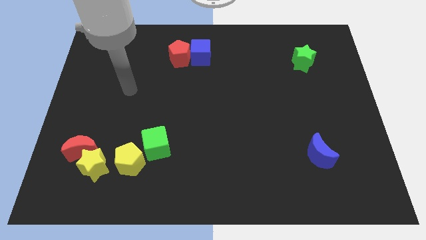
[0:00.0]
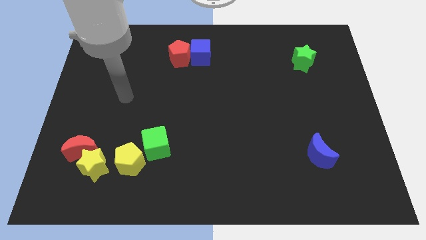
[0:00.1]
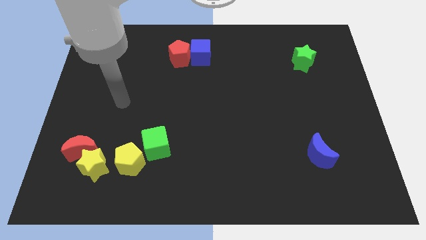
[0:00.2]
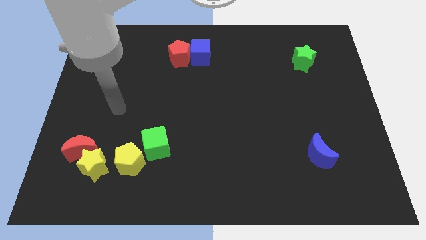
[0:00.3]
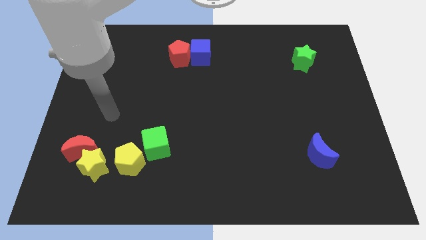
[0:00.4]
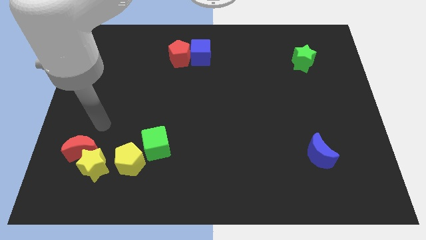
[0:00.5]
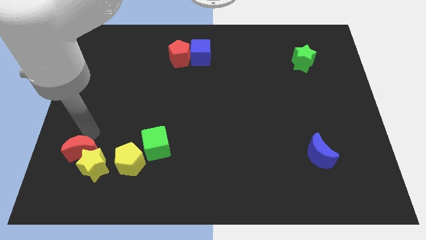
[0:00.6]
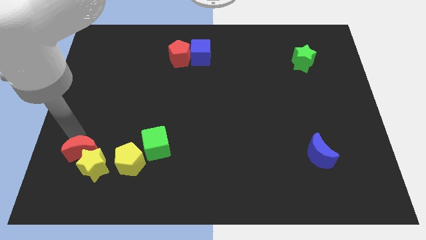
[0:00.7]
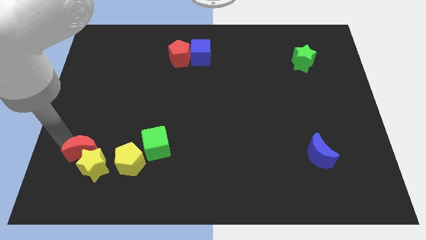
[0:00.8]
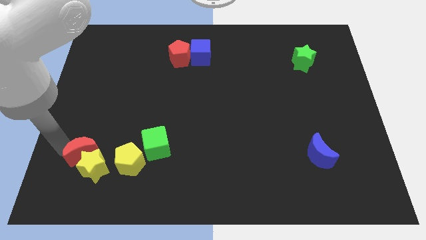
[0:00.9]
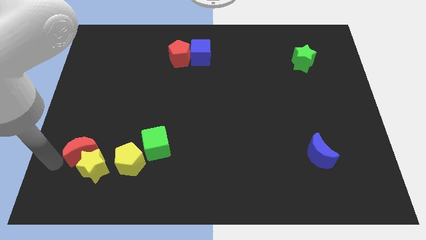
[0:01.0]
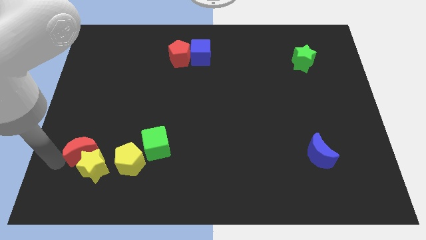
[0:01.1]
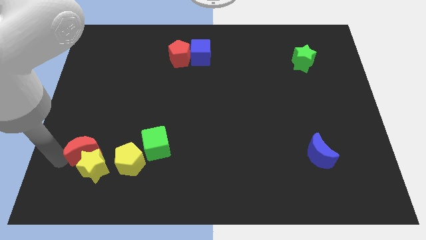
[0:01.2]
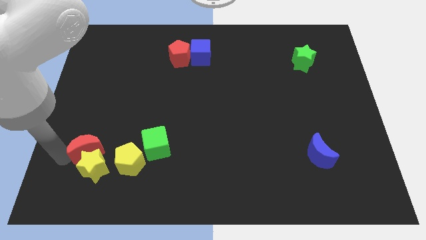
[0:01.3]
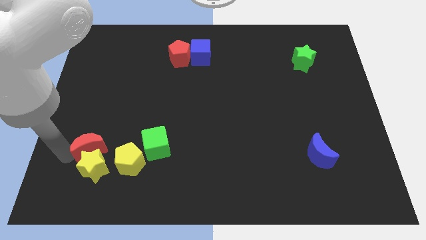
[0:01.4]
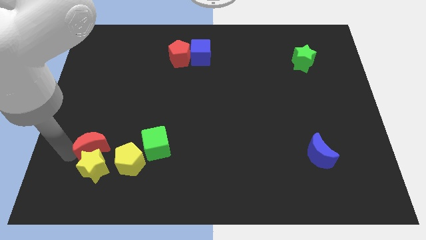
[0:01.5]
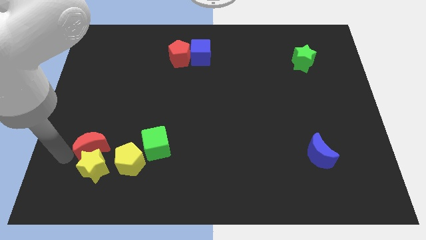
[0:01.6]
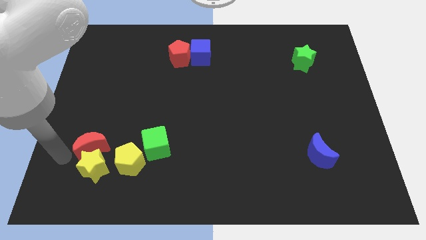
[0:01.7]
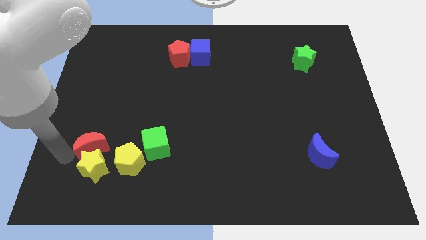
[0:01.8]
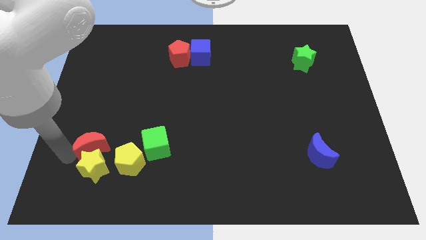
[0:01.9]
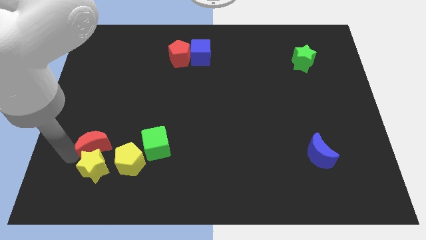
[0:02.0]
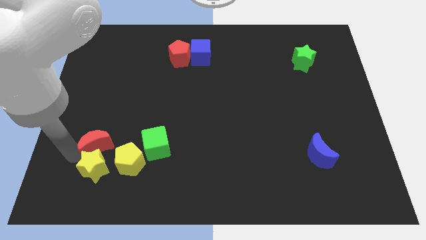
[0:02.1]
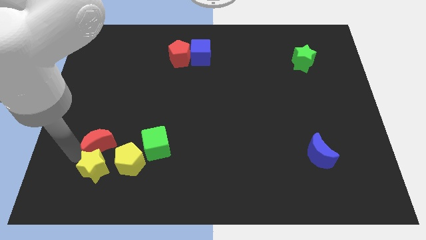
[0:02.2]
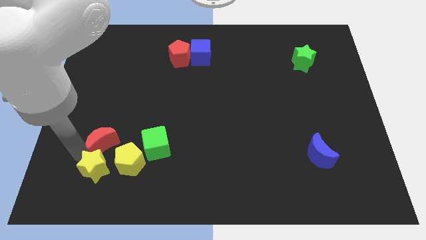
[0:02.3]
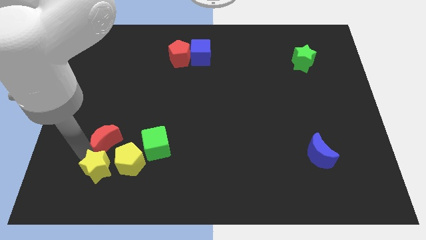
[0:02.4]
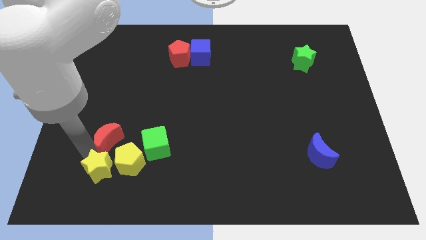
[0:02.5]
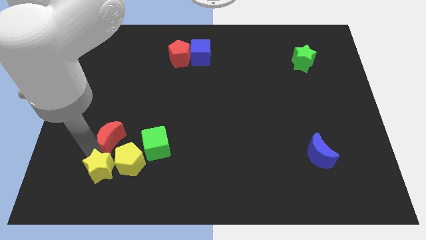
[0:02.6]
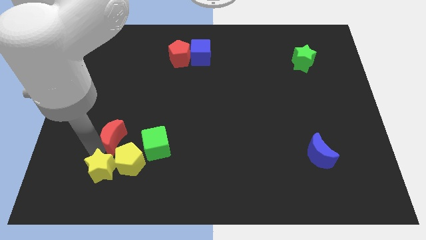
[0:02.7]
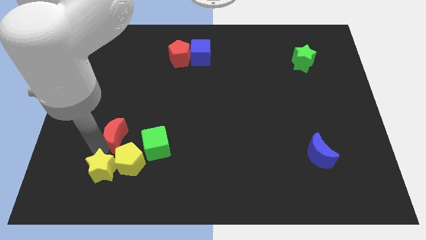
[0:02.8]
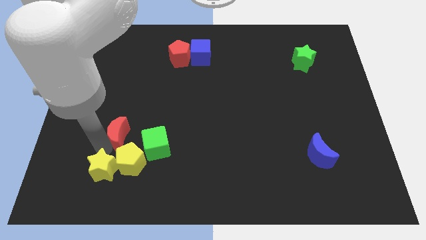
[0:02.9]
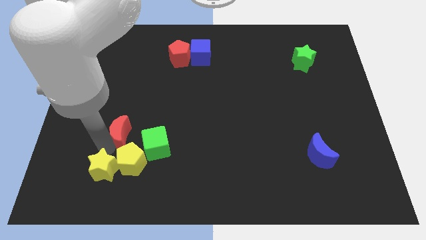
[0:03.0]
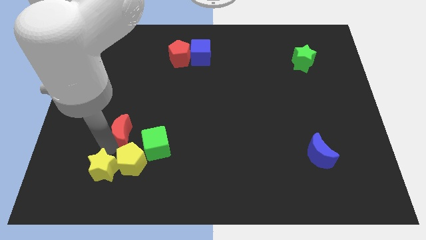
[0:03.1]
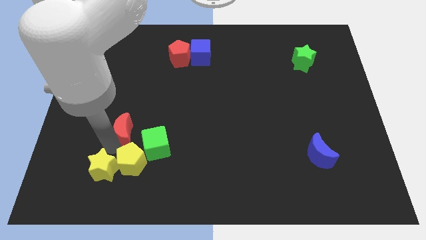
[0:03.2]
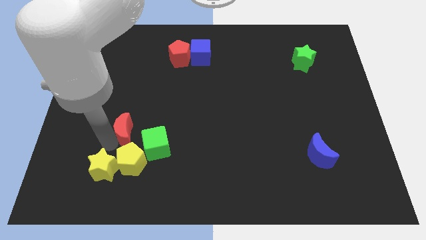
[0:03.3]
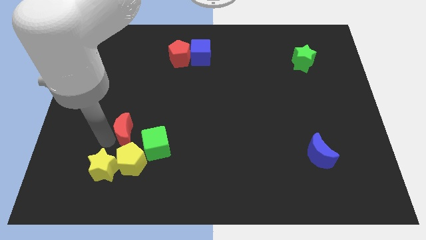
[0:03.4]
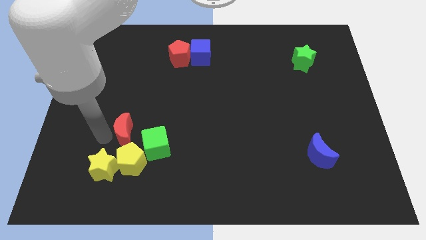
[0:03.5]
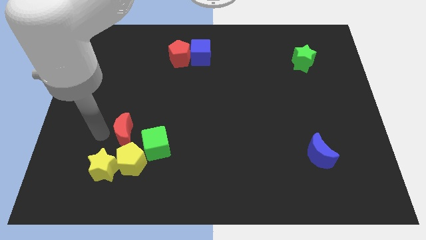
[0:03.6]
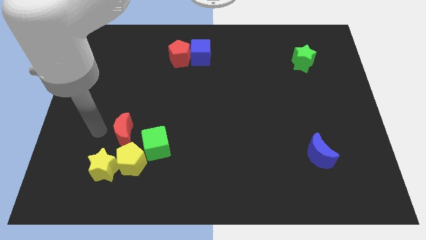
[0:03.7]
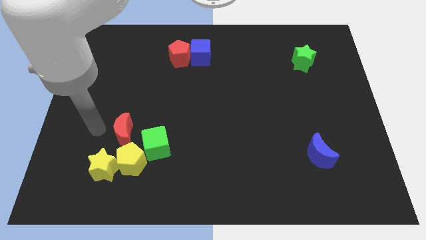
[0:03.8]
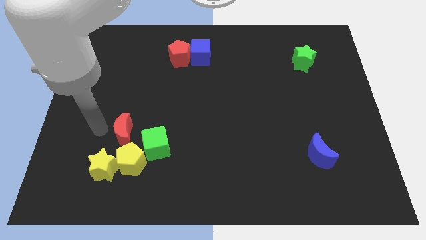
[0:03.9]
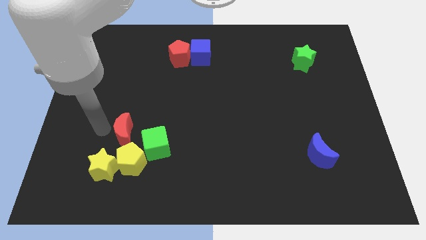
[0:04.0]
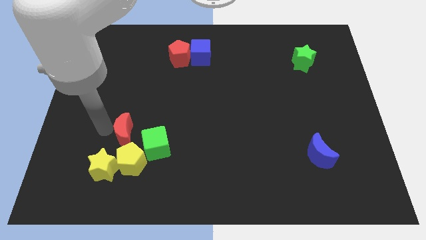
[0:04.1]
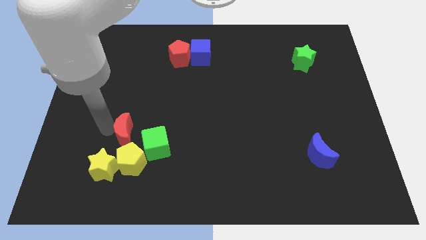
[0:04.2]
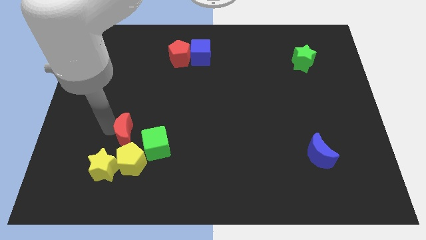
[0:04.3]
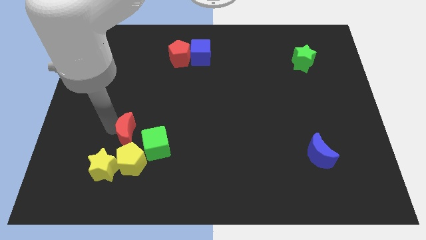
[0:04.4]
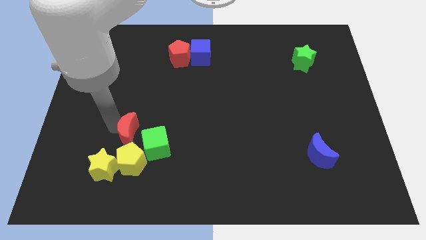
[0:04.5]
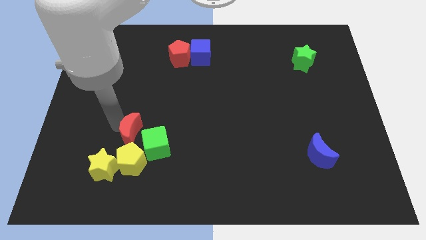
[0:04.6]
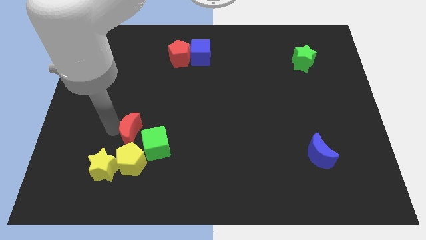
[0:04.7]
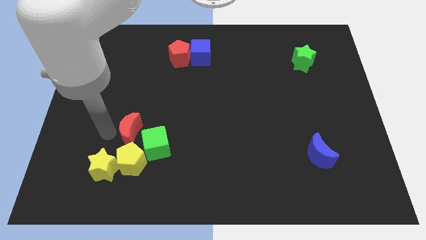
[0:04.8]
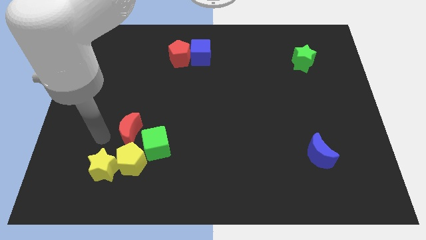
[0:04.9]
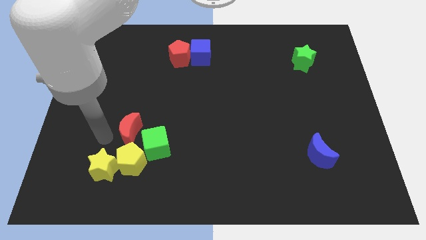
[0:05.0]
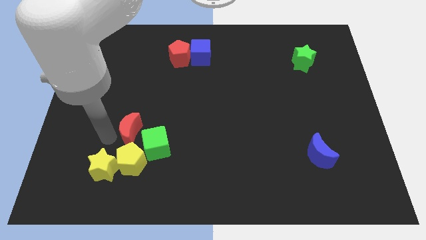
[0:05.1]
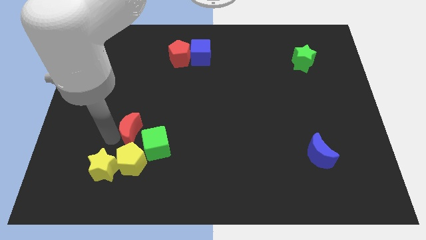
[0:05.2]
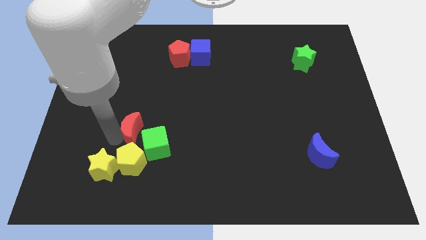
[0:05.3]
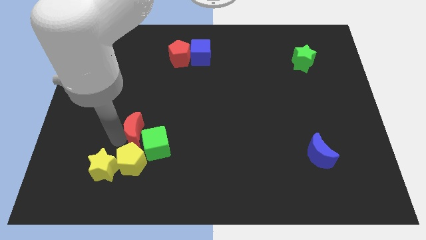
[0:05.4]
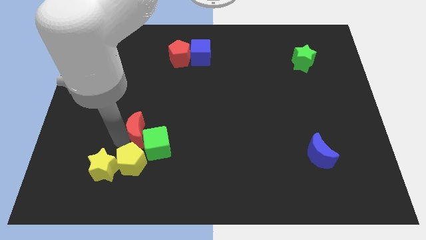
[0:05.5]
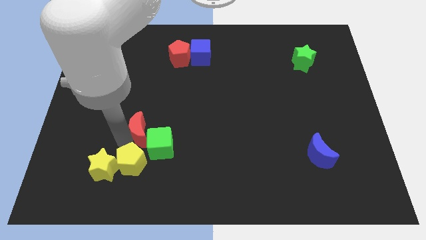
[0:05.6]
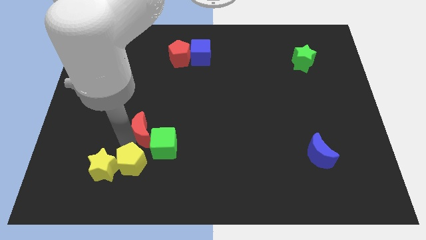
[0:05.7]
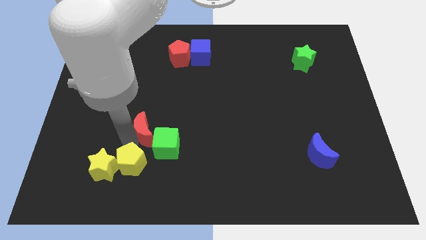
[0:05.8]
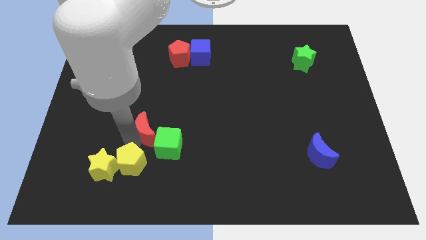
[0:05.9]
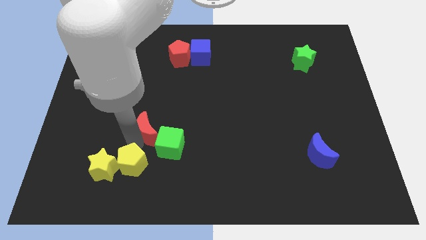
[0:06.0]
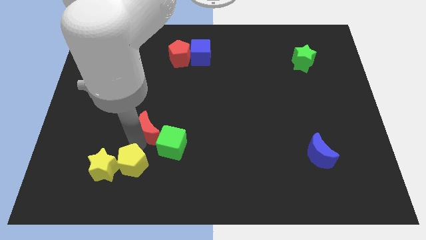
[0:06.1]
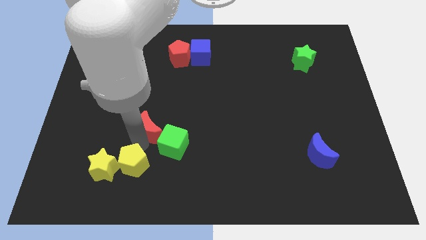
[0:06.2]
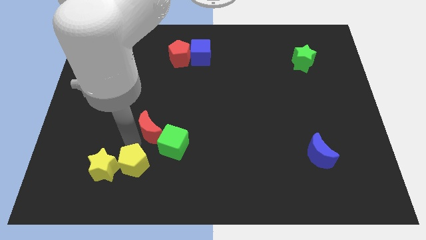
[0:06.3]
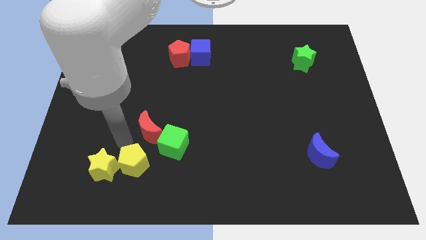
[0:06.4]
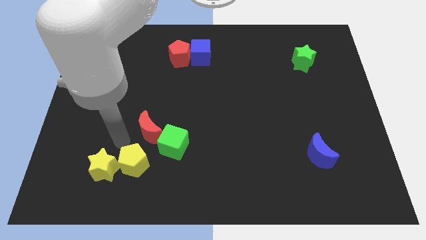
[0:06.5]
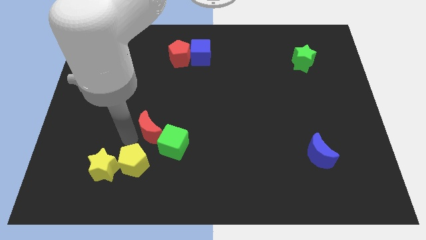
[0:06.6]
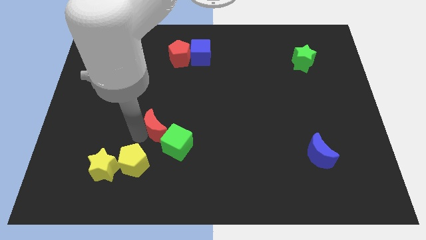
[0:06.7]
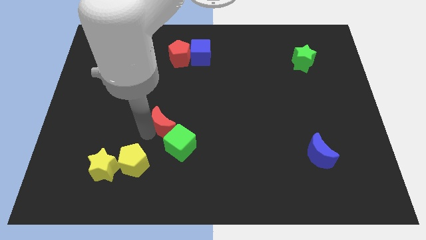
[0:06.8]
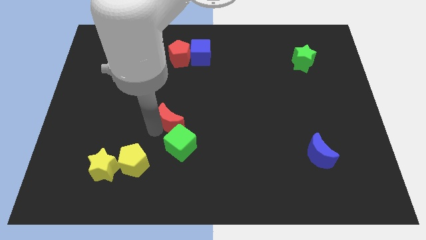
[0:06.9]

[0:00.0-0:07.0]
push the red moon to the middle

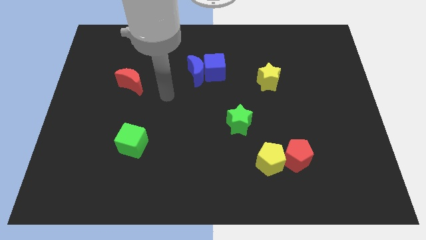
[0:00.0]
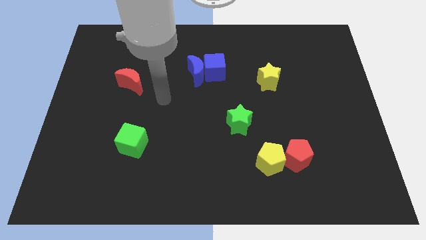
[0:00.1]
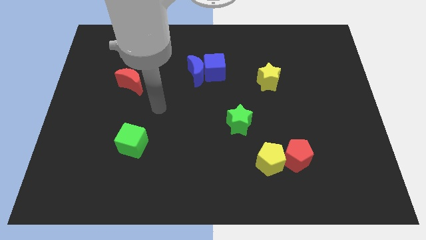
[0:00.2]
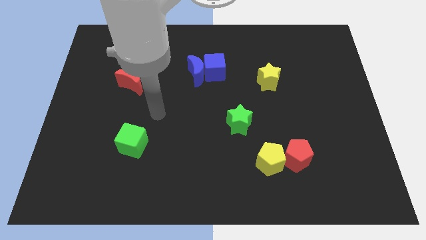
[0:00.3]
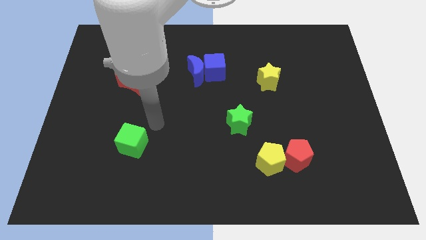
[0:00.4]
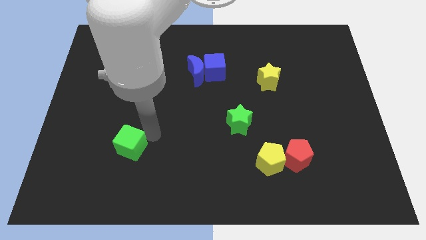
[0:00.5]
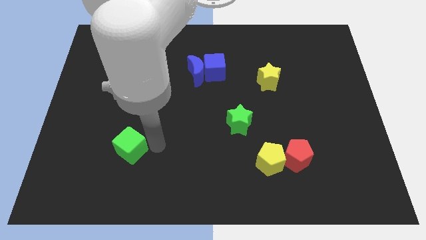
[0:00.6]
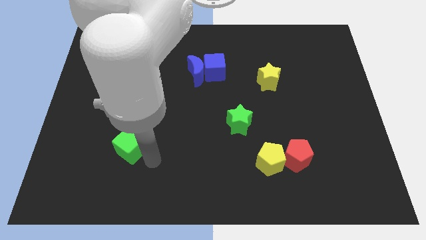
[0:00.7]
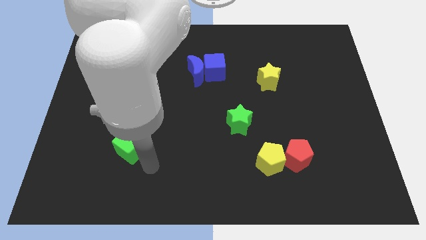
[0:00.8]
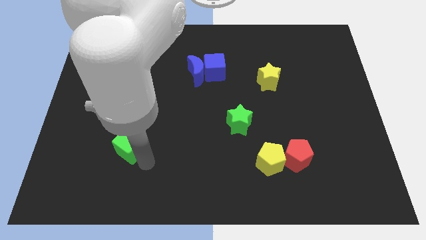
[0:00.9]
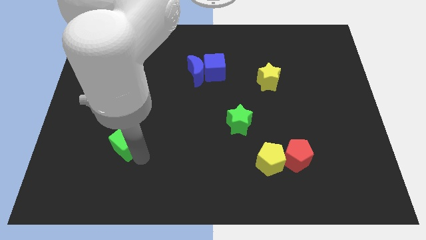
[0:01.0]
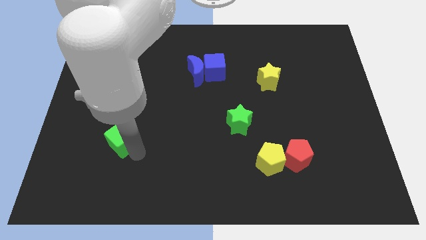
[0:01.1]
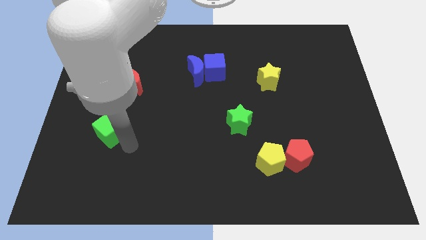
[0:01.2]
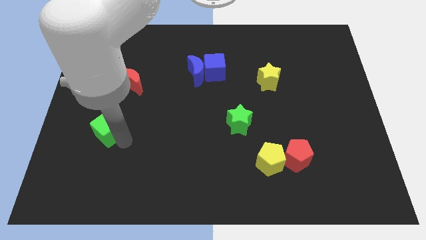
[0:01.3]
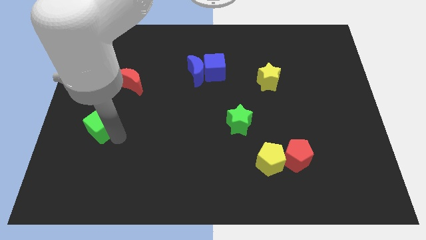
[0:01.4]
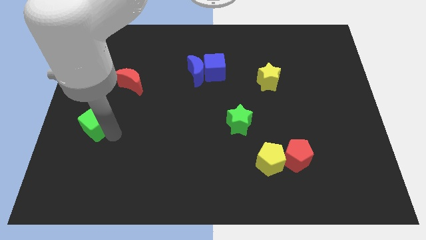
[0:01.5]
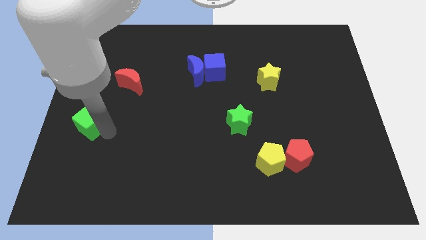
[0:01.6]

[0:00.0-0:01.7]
move the green cube to the left side of the board
